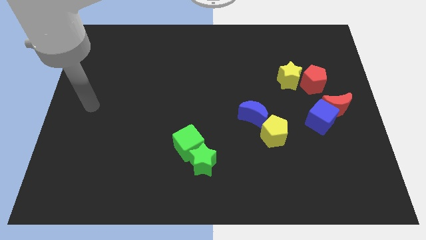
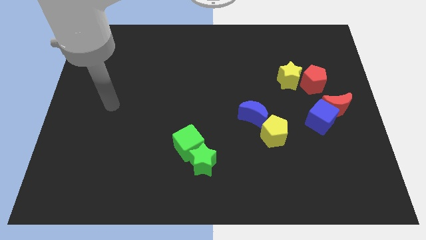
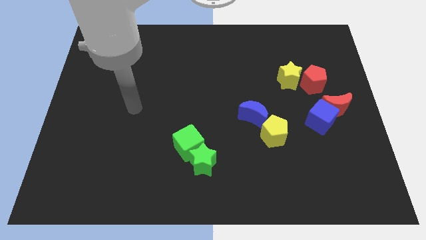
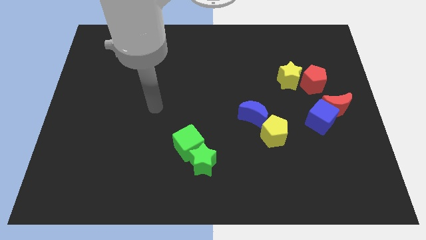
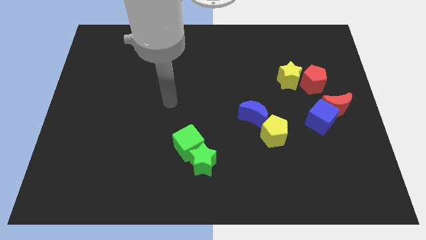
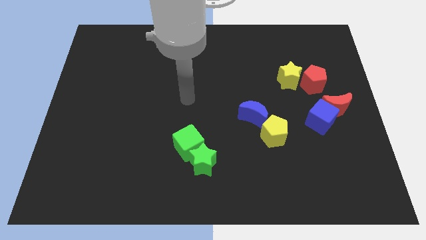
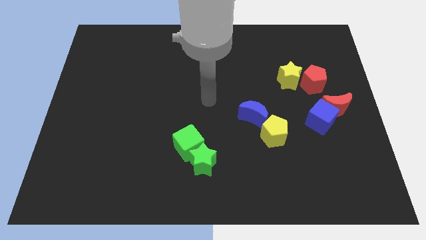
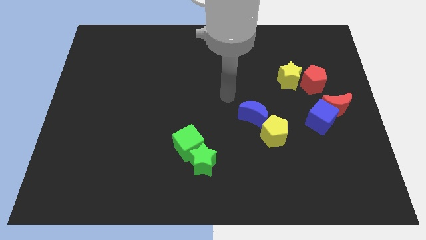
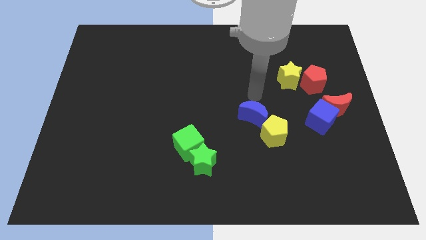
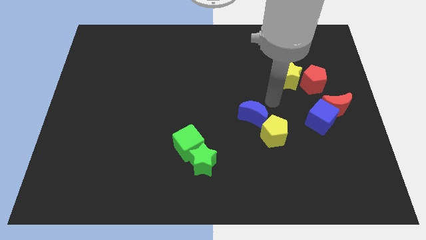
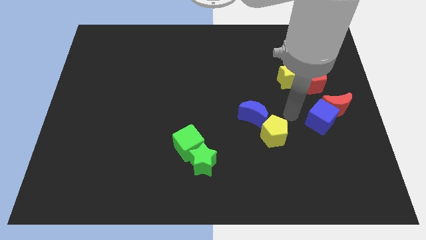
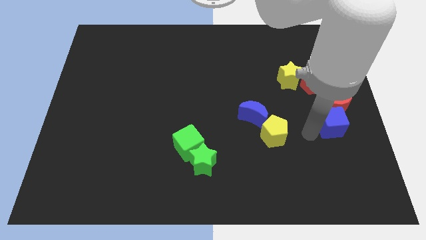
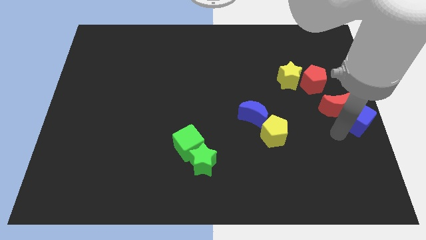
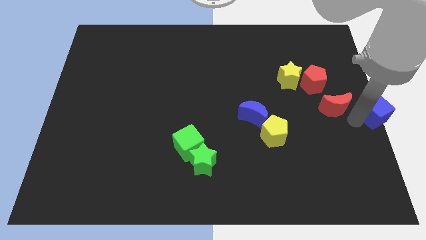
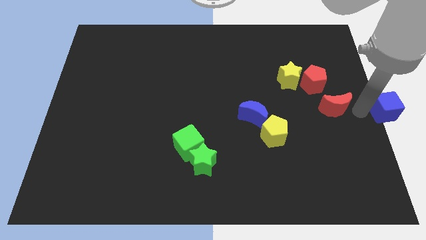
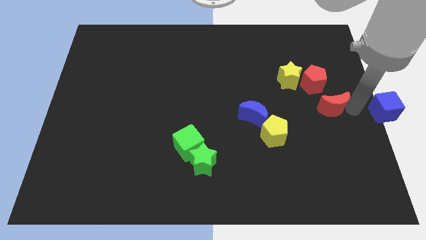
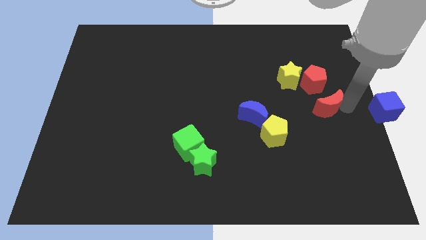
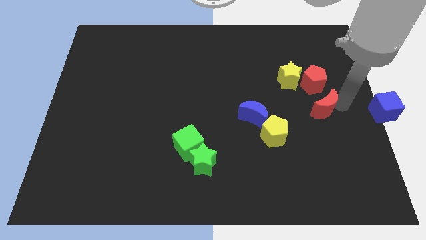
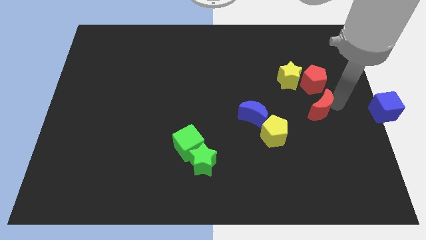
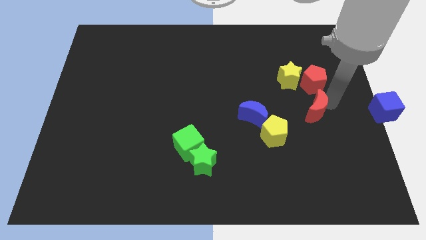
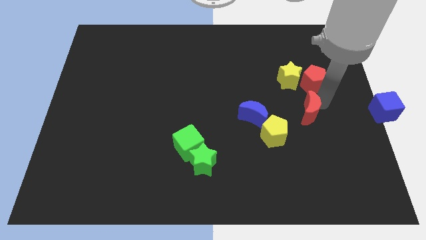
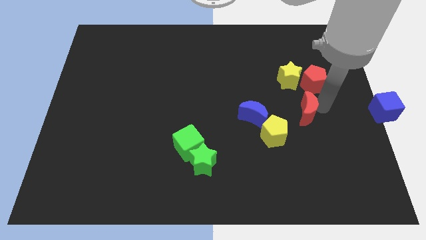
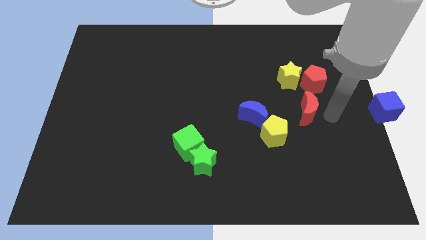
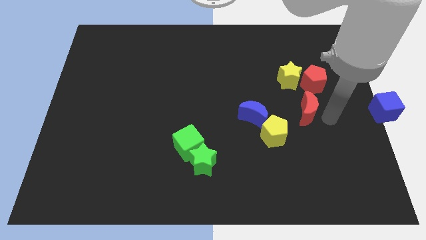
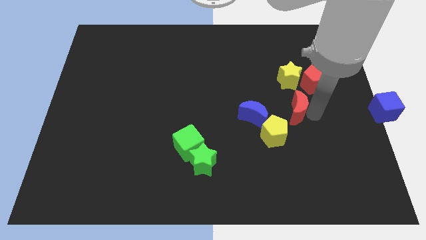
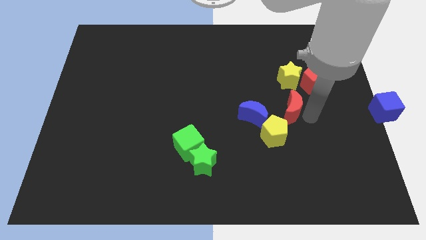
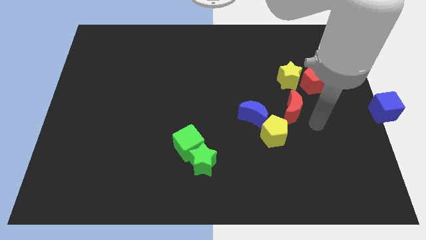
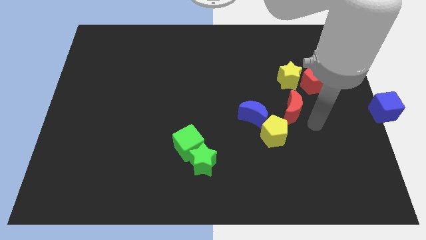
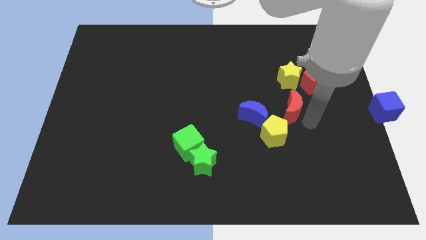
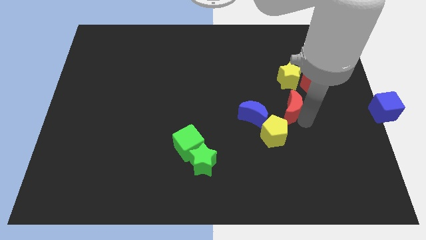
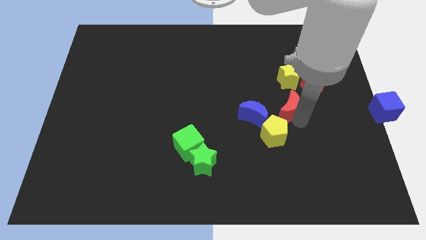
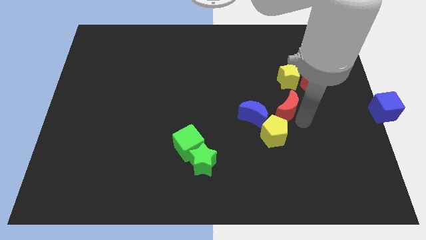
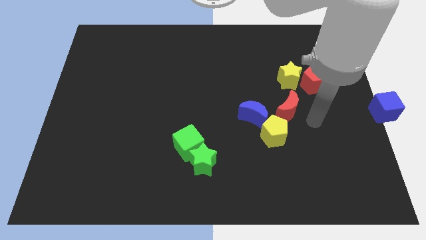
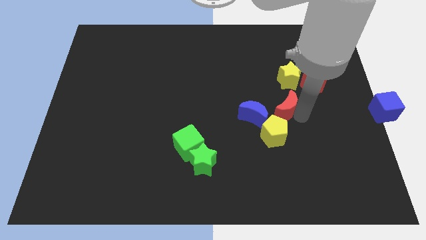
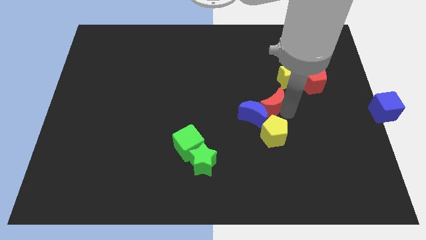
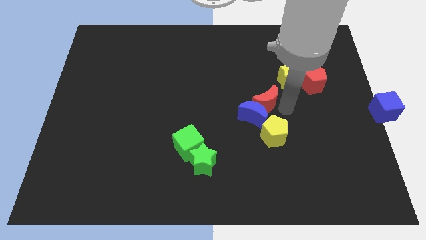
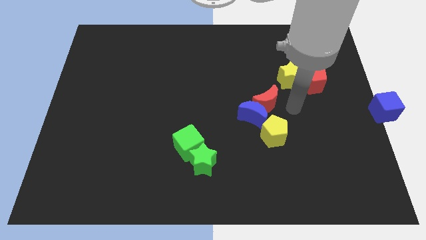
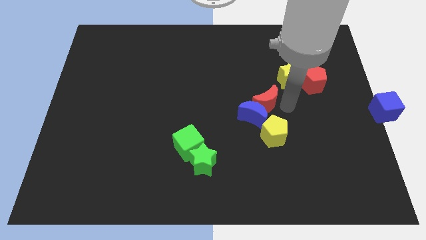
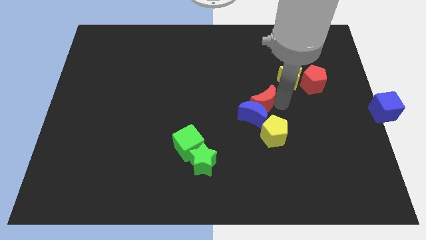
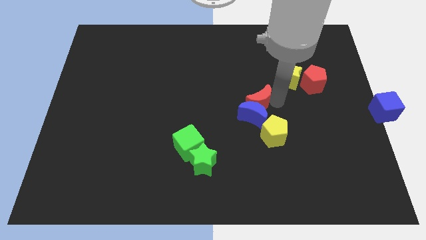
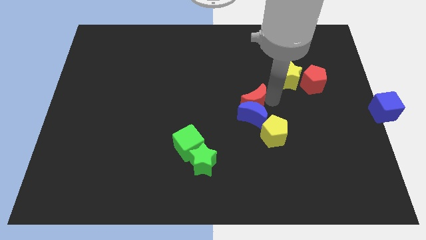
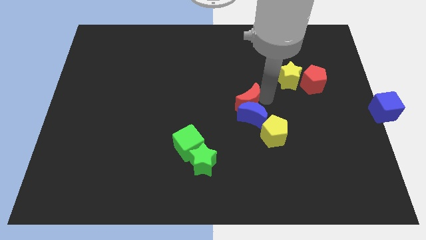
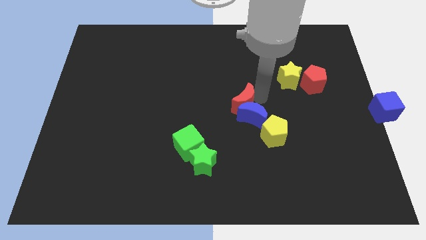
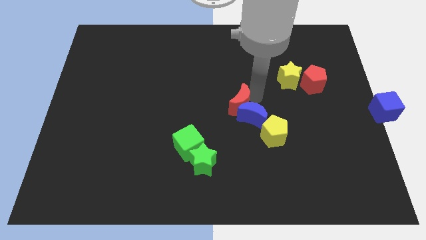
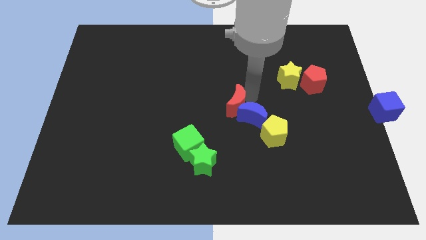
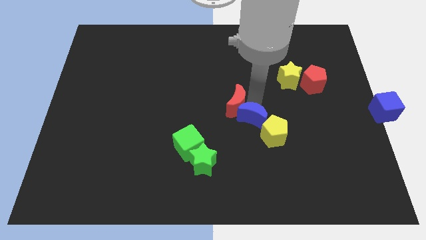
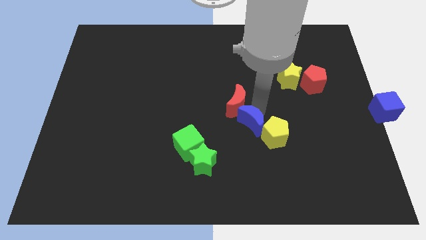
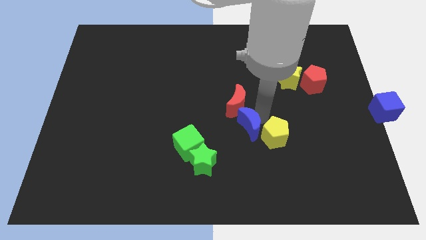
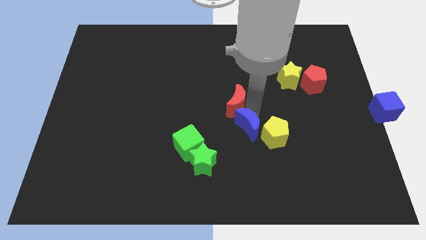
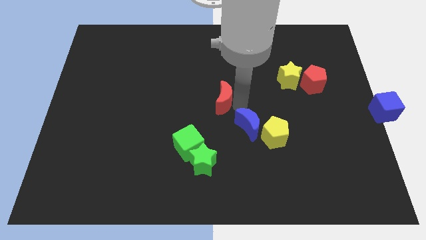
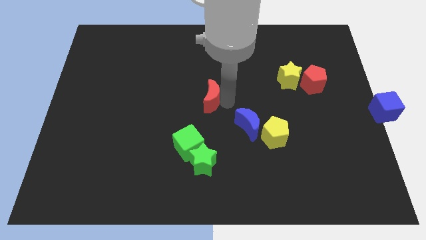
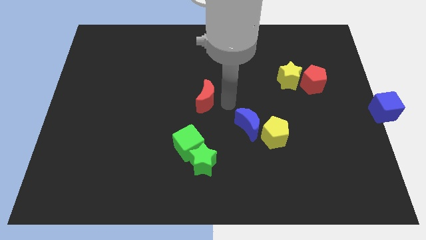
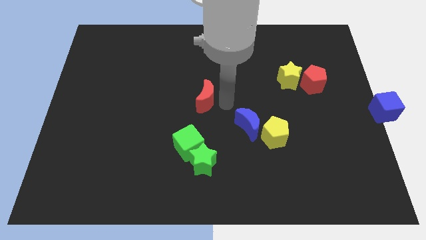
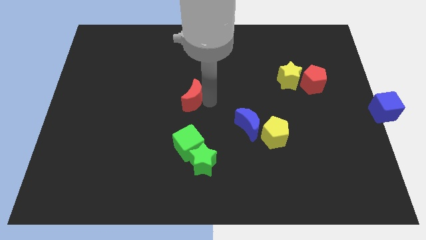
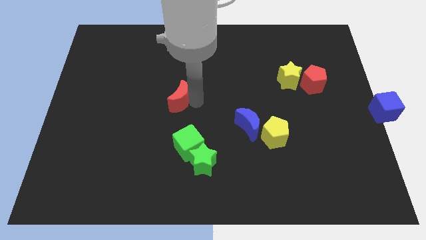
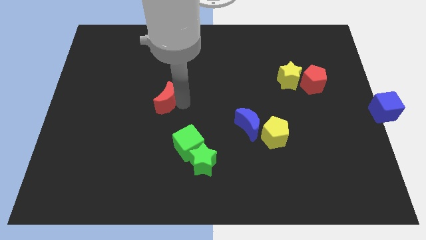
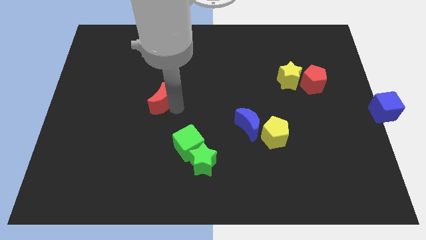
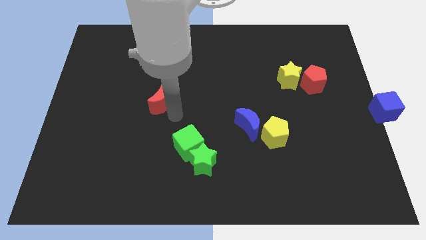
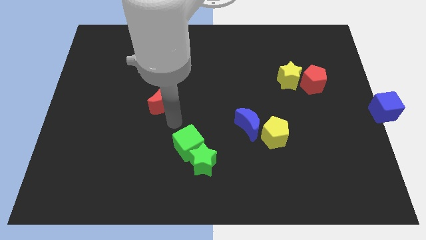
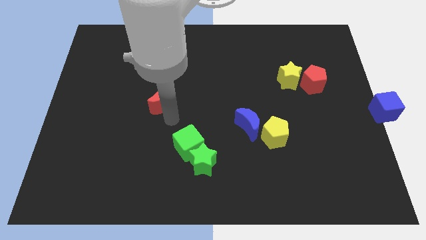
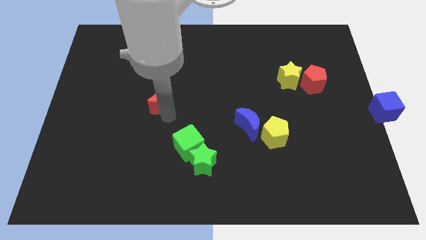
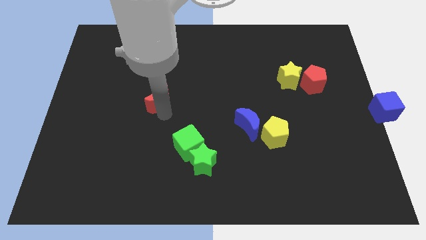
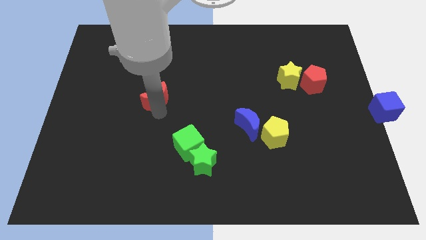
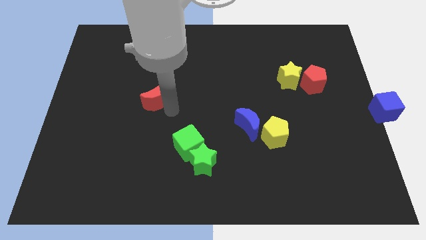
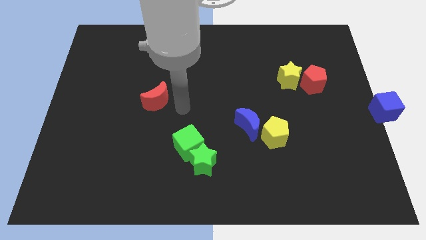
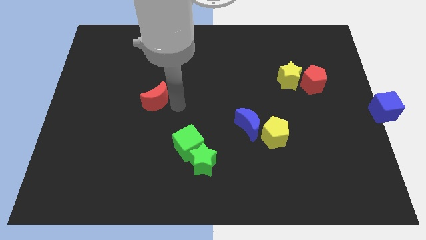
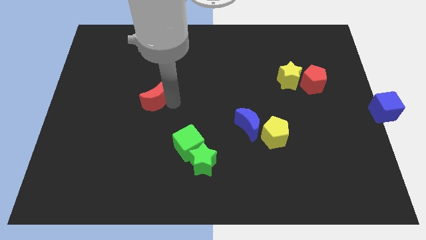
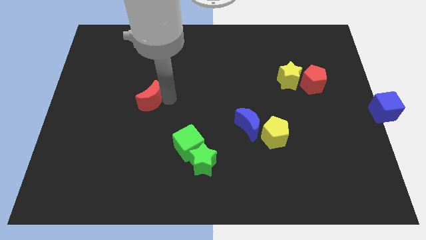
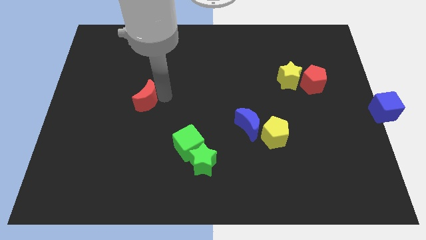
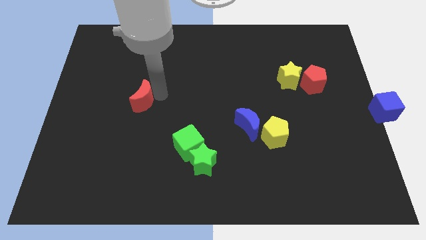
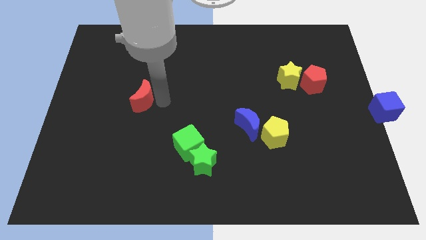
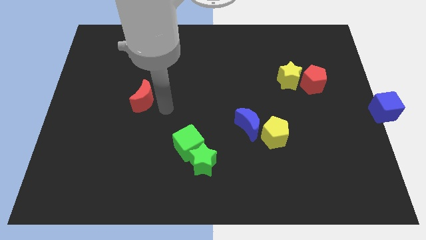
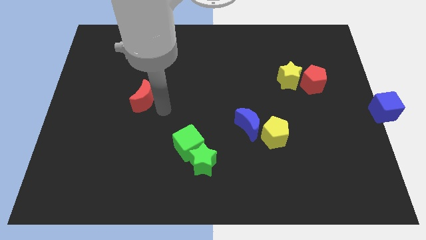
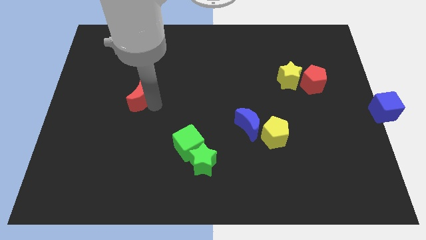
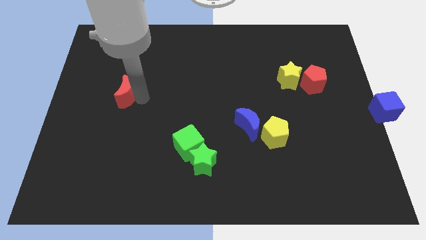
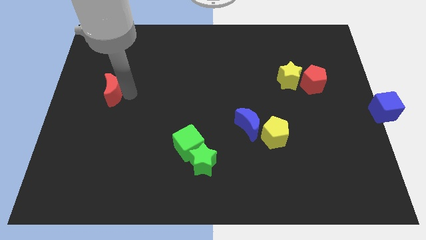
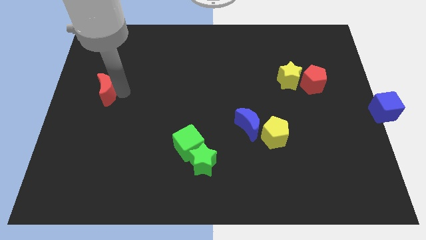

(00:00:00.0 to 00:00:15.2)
push the red moon to the left side
